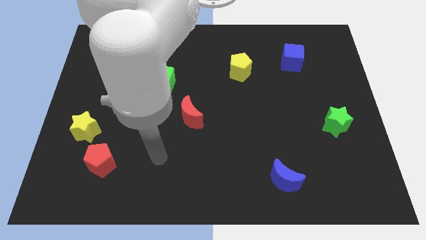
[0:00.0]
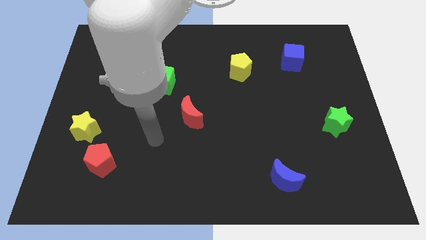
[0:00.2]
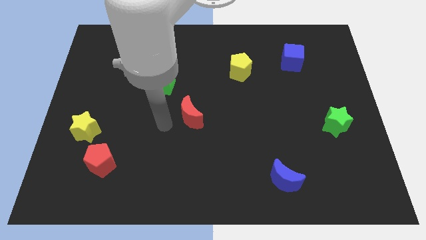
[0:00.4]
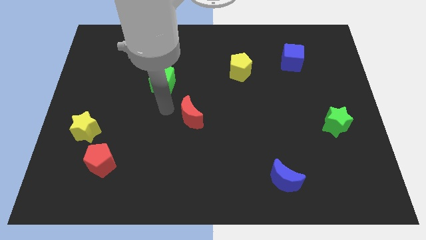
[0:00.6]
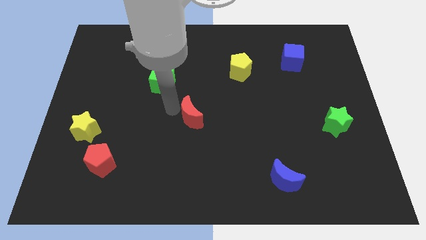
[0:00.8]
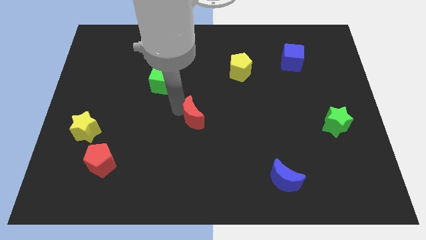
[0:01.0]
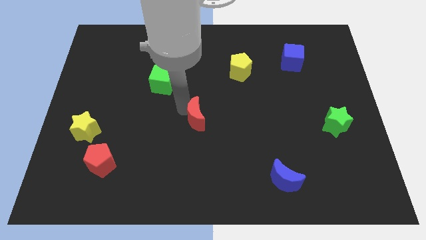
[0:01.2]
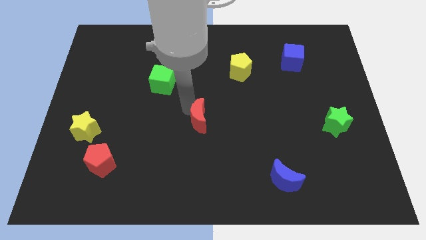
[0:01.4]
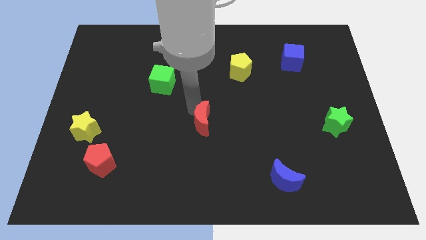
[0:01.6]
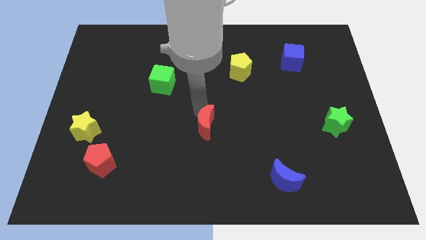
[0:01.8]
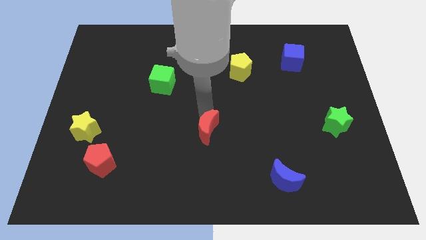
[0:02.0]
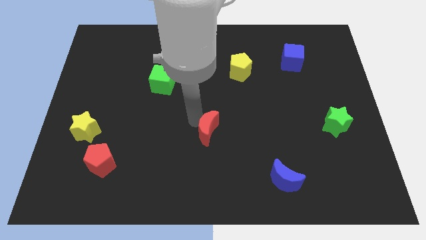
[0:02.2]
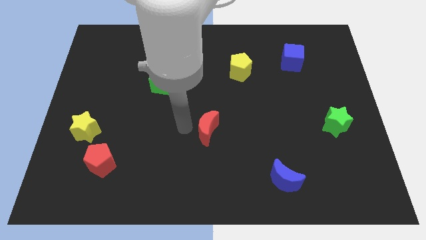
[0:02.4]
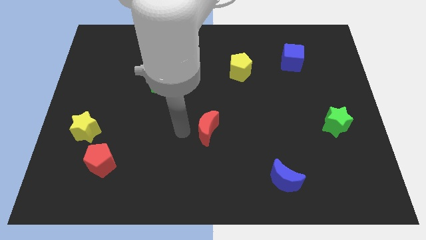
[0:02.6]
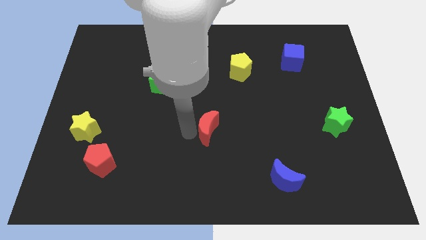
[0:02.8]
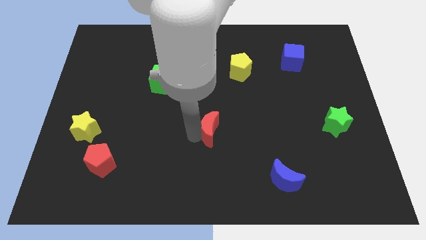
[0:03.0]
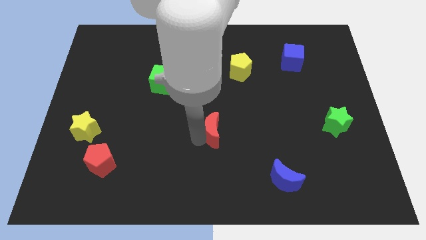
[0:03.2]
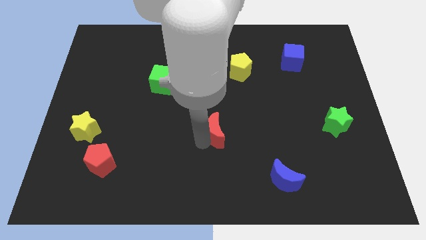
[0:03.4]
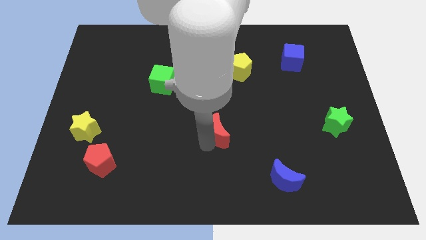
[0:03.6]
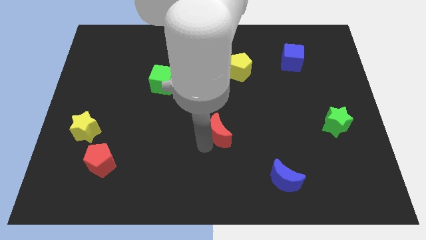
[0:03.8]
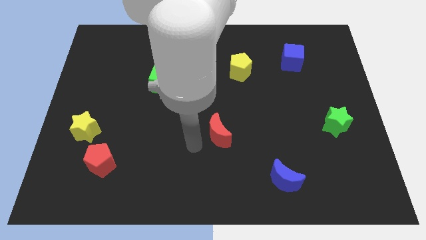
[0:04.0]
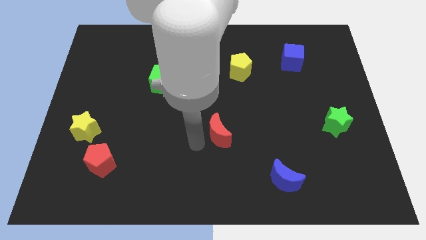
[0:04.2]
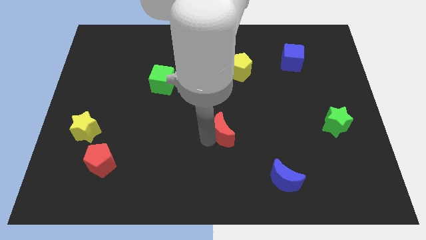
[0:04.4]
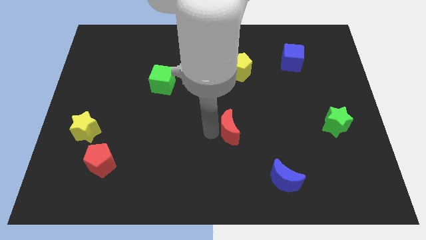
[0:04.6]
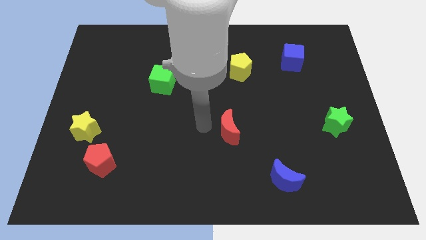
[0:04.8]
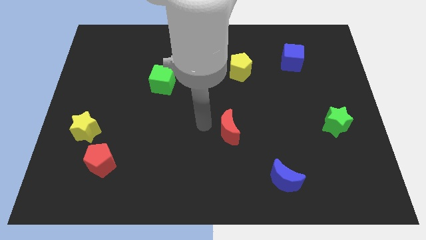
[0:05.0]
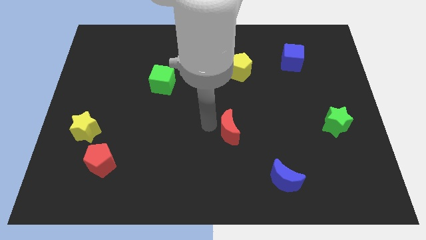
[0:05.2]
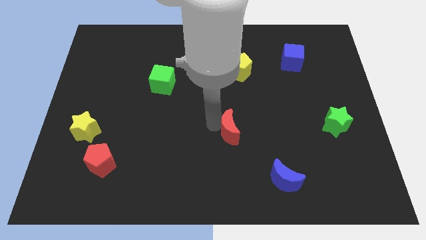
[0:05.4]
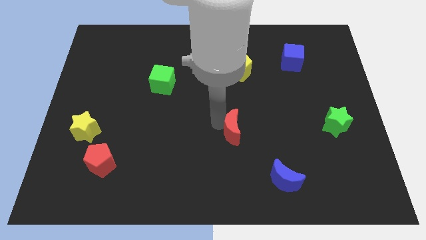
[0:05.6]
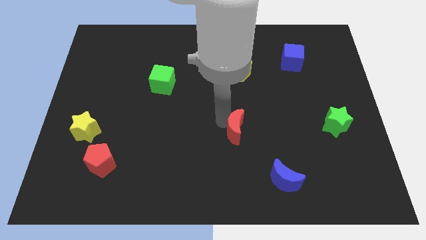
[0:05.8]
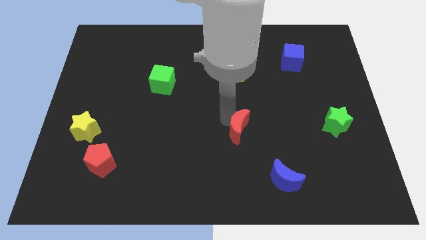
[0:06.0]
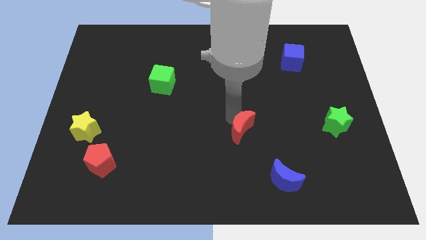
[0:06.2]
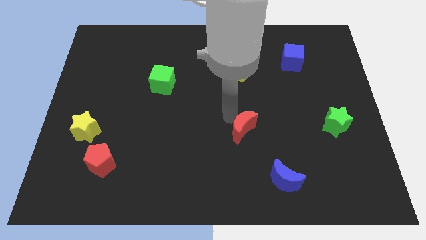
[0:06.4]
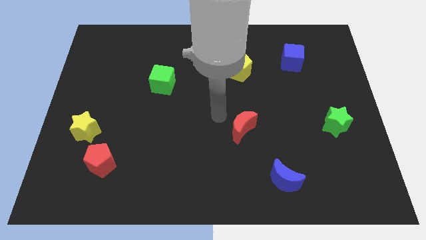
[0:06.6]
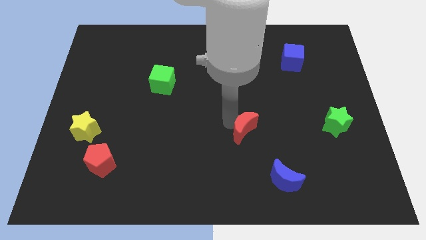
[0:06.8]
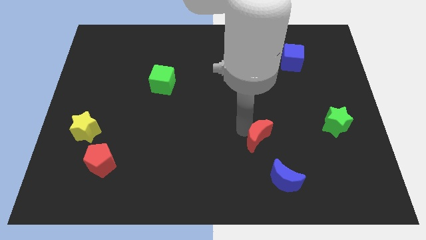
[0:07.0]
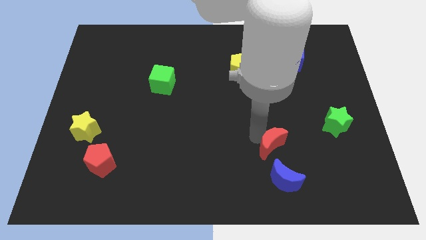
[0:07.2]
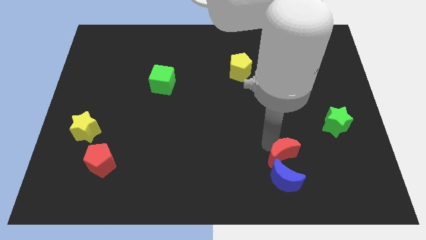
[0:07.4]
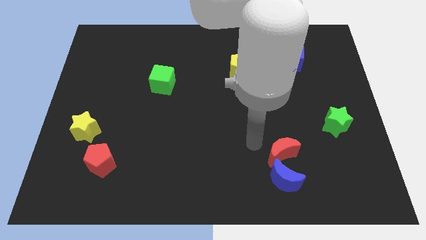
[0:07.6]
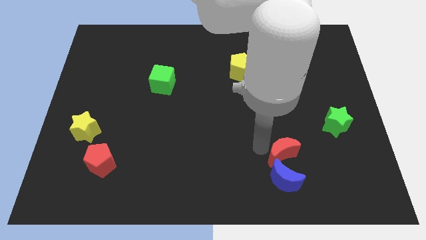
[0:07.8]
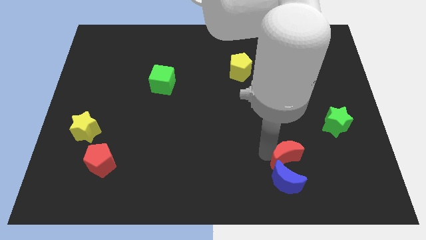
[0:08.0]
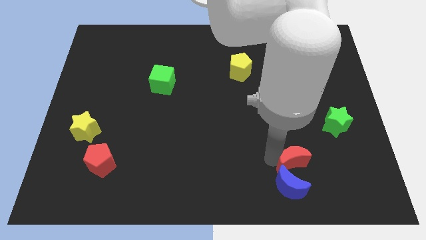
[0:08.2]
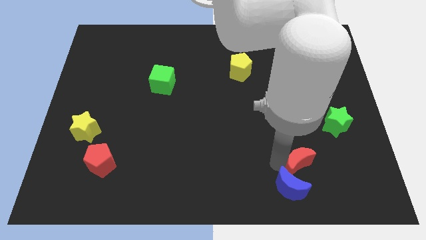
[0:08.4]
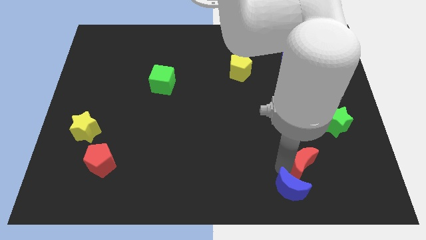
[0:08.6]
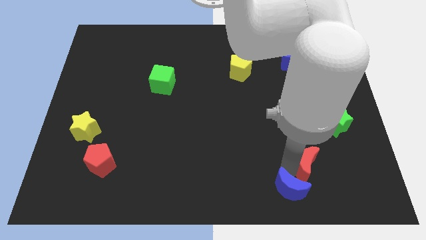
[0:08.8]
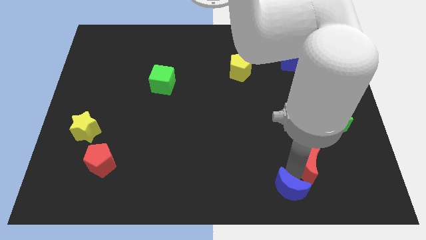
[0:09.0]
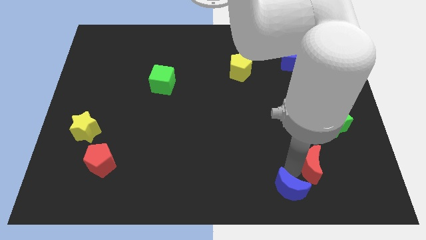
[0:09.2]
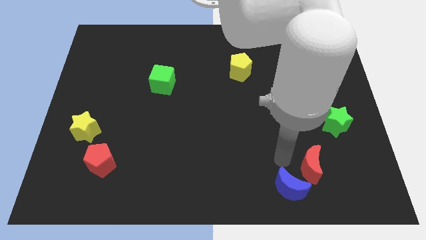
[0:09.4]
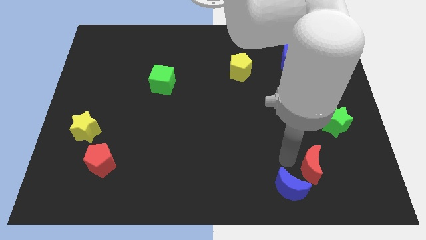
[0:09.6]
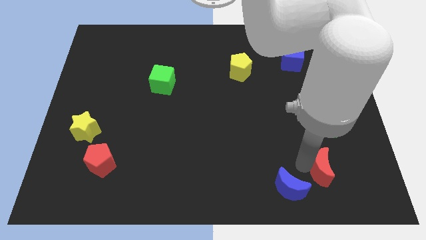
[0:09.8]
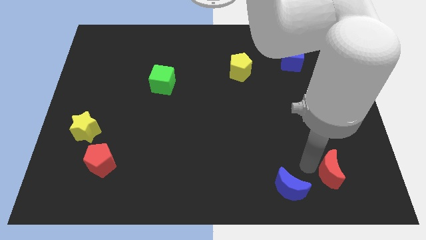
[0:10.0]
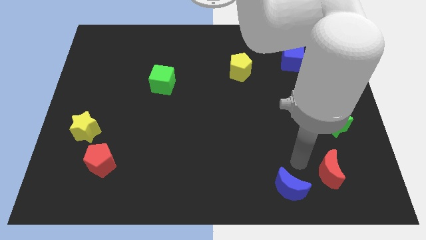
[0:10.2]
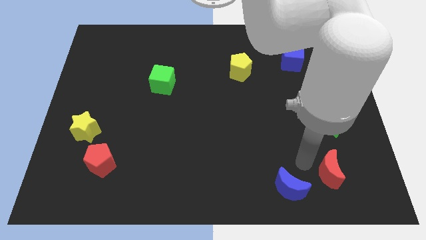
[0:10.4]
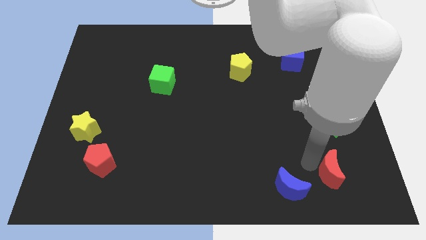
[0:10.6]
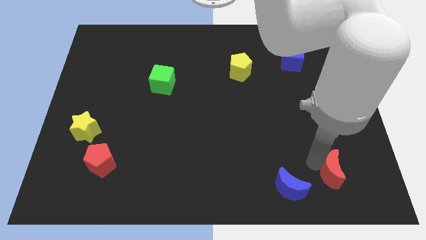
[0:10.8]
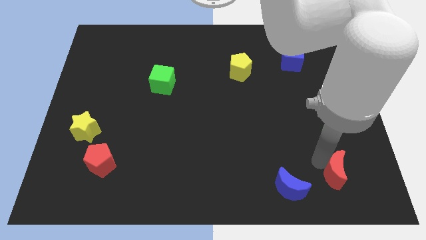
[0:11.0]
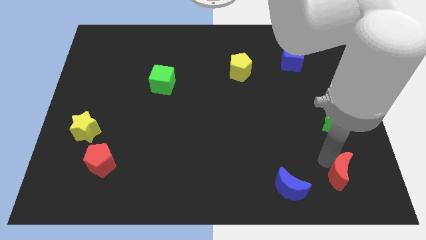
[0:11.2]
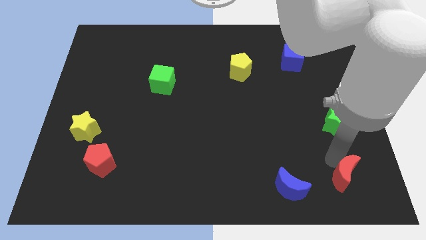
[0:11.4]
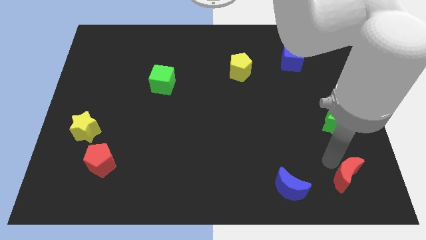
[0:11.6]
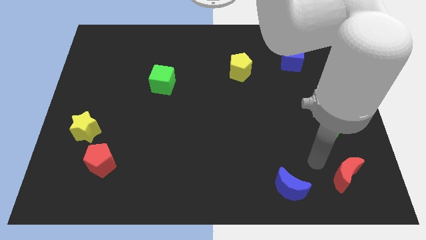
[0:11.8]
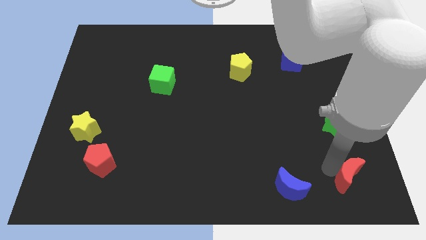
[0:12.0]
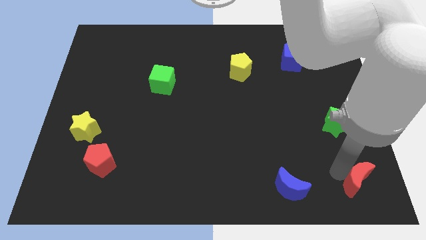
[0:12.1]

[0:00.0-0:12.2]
push the red moon to the bottom right corner
